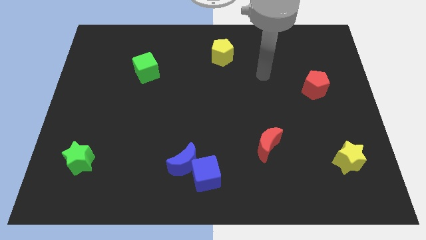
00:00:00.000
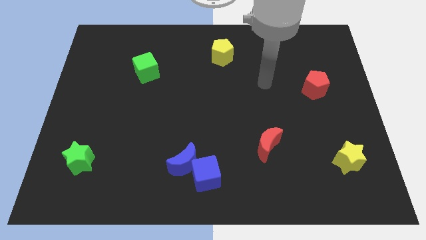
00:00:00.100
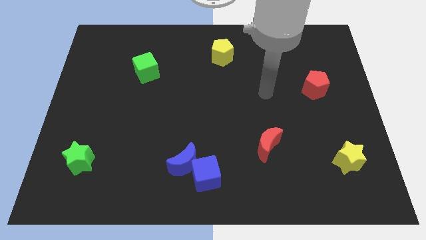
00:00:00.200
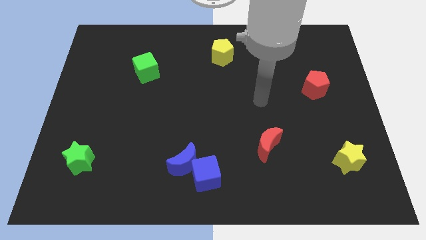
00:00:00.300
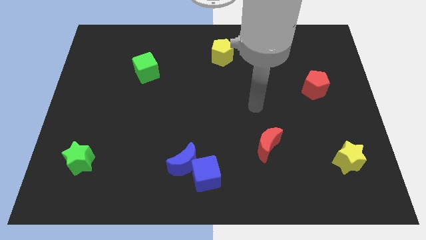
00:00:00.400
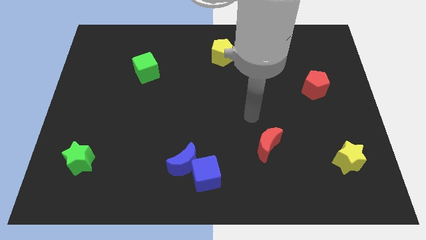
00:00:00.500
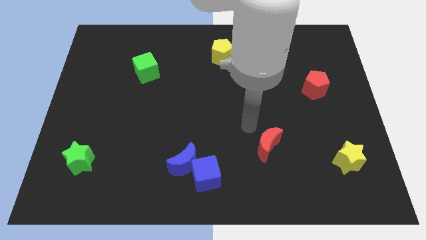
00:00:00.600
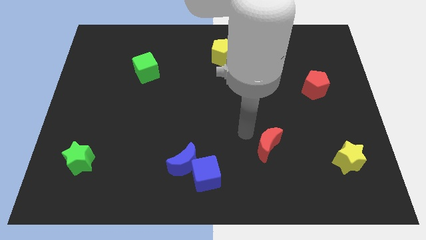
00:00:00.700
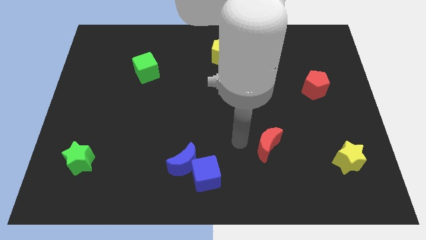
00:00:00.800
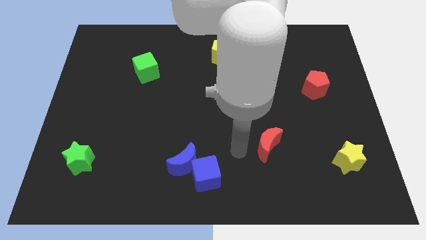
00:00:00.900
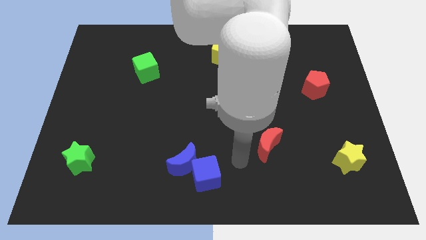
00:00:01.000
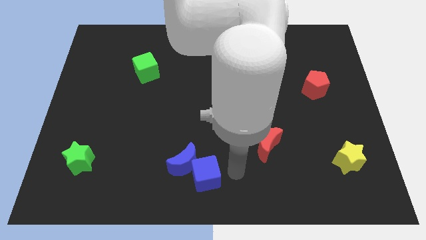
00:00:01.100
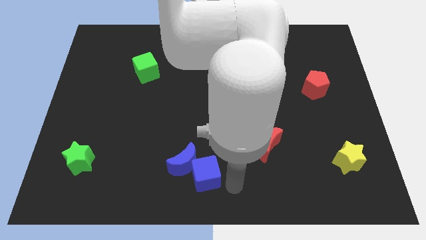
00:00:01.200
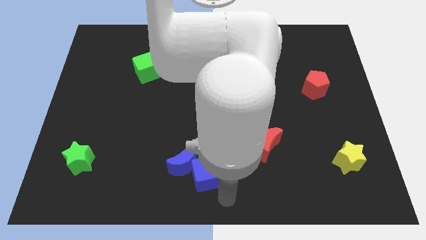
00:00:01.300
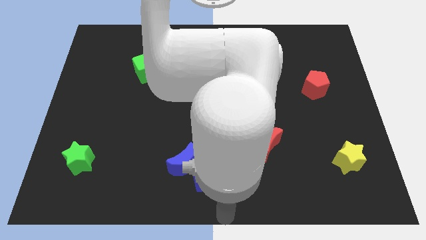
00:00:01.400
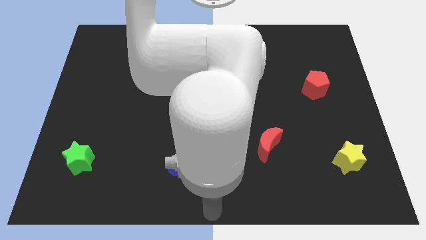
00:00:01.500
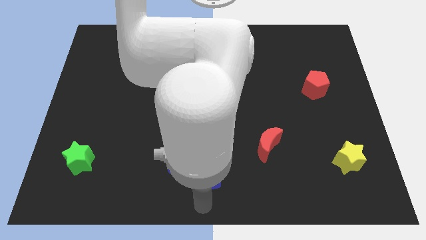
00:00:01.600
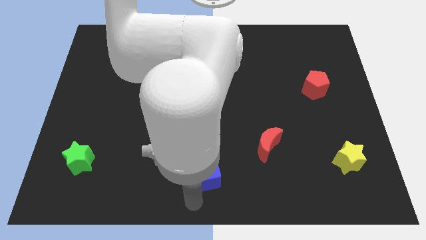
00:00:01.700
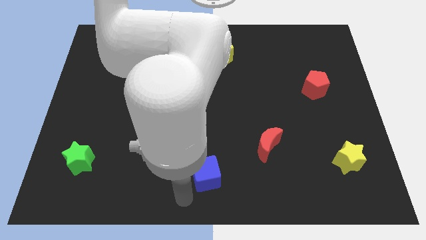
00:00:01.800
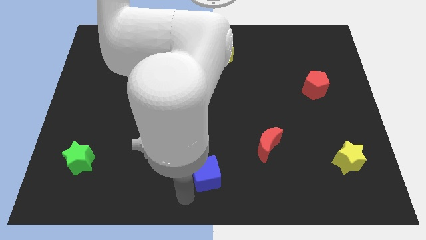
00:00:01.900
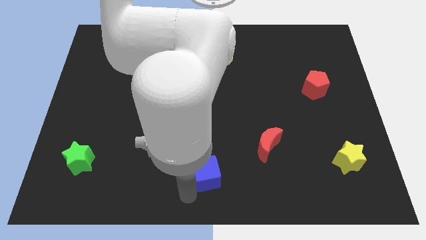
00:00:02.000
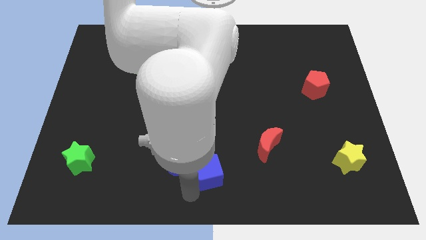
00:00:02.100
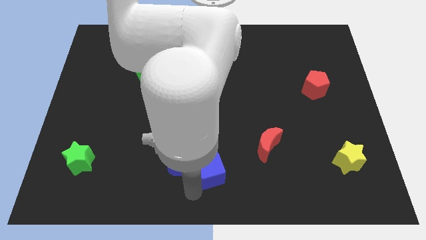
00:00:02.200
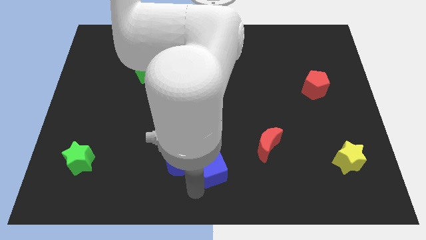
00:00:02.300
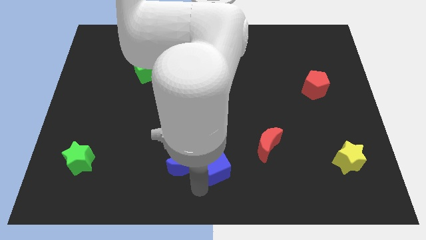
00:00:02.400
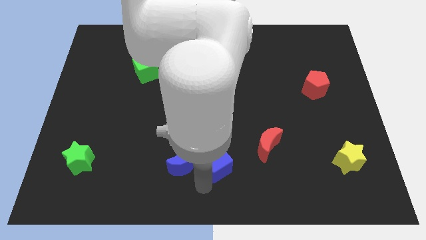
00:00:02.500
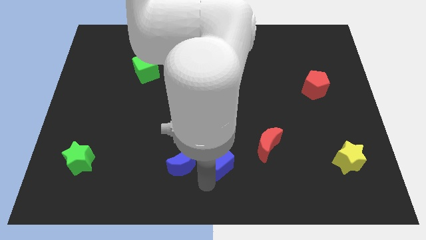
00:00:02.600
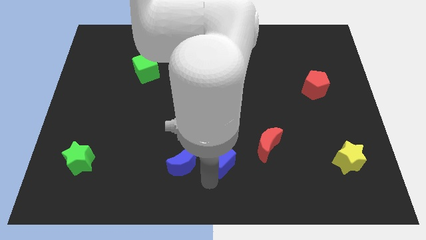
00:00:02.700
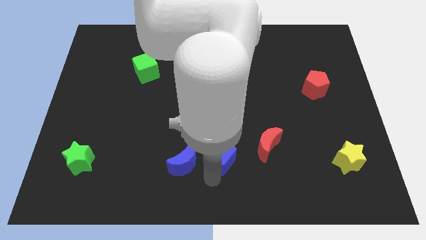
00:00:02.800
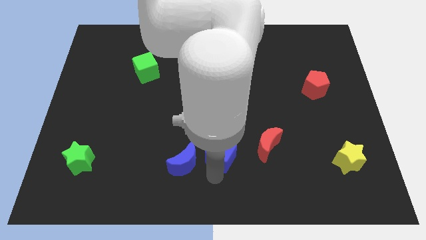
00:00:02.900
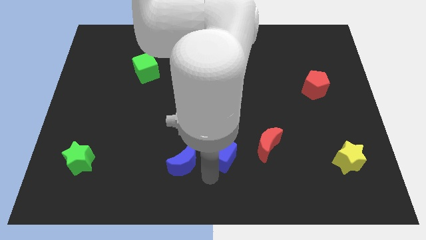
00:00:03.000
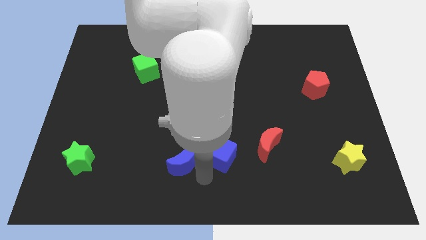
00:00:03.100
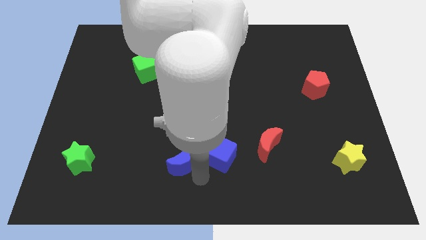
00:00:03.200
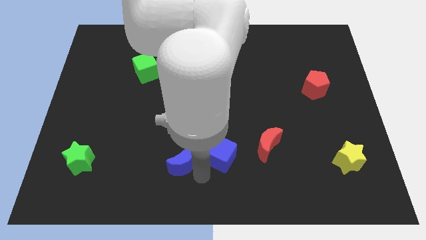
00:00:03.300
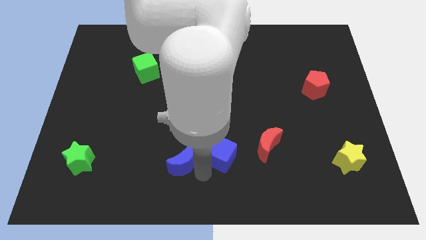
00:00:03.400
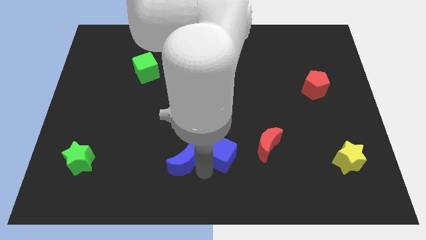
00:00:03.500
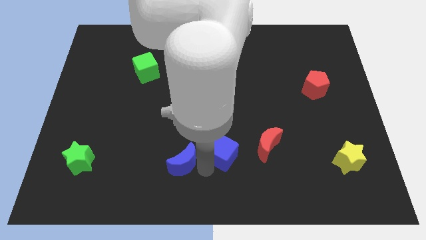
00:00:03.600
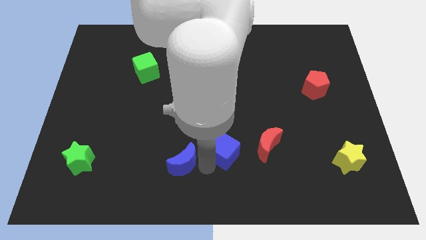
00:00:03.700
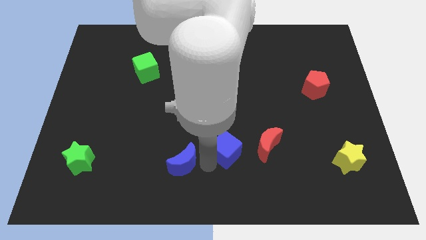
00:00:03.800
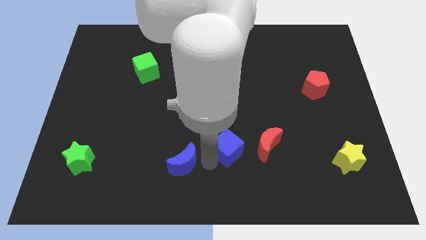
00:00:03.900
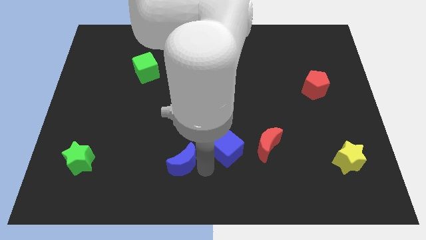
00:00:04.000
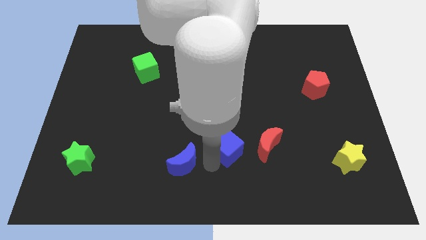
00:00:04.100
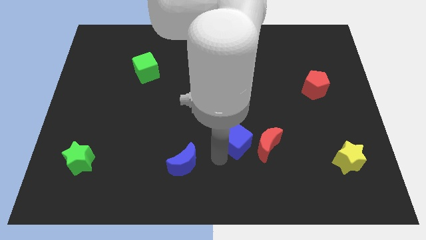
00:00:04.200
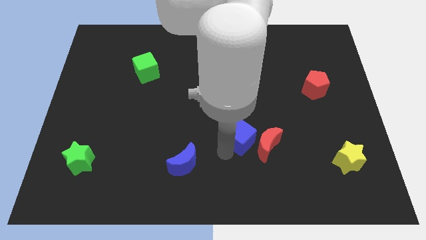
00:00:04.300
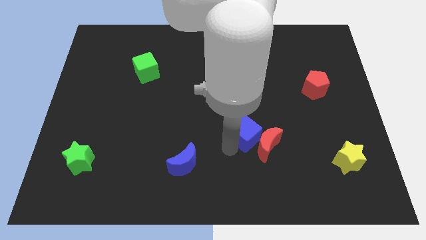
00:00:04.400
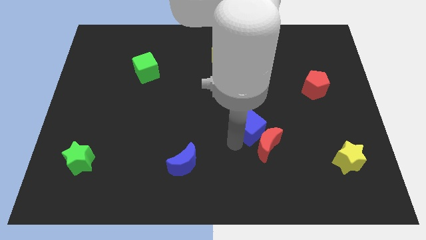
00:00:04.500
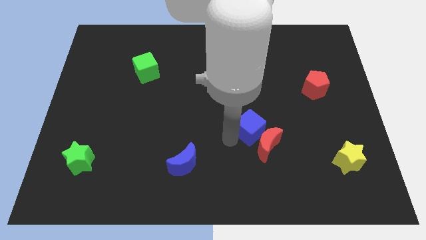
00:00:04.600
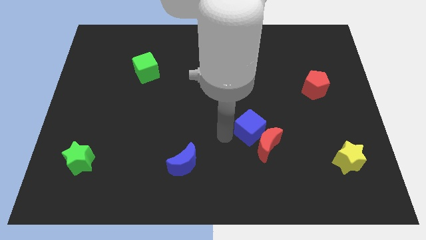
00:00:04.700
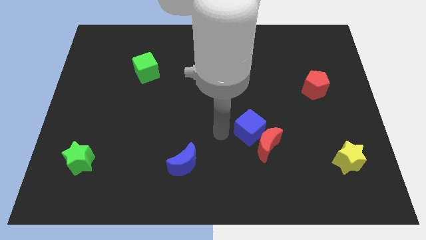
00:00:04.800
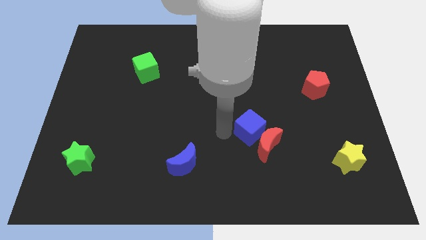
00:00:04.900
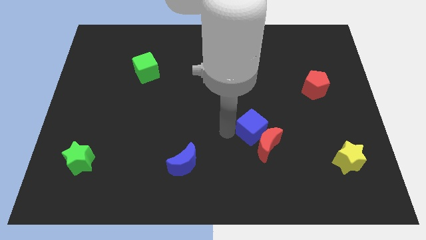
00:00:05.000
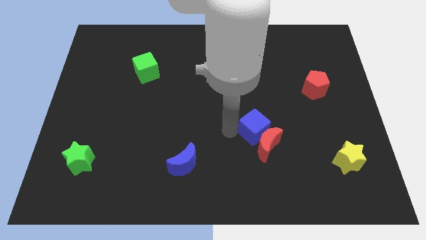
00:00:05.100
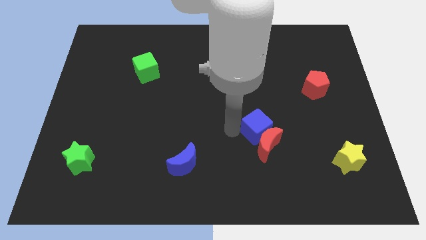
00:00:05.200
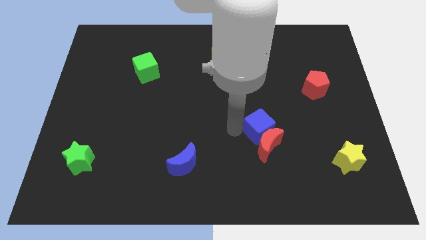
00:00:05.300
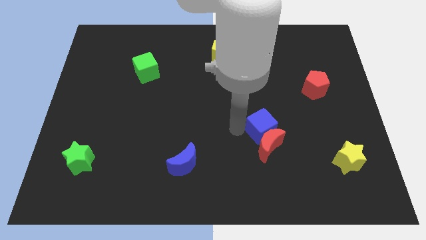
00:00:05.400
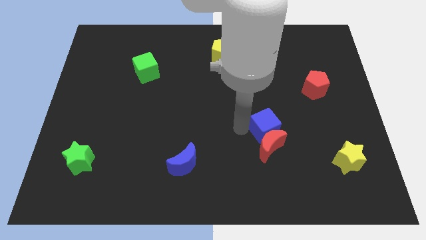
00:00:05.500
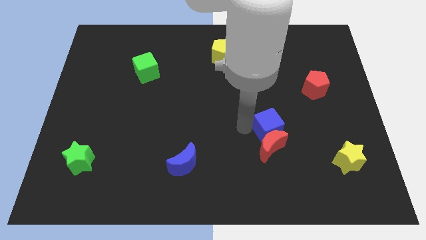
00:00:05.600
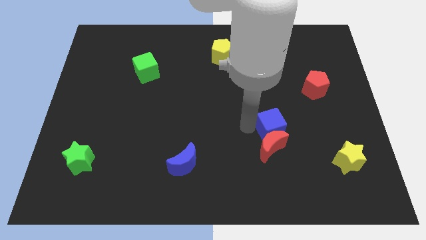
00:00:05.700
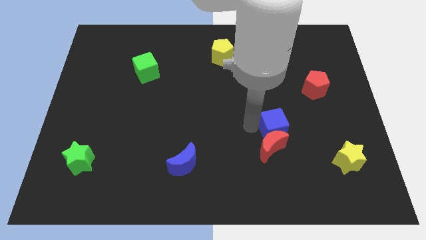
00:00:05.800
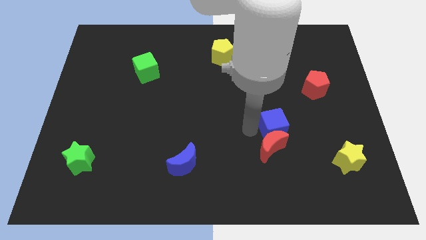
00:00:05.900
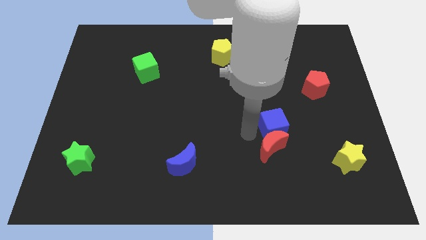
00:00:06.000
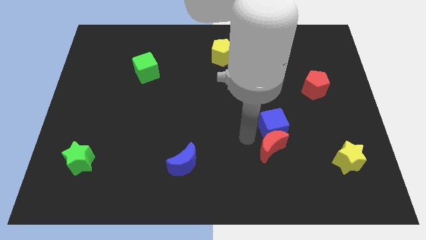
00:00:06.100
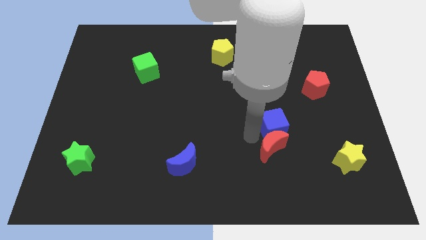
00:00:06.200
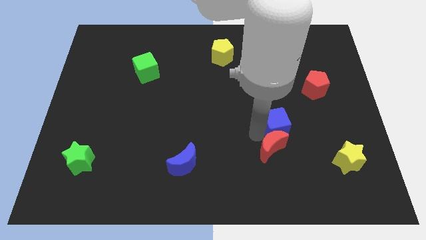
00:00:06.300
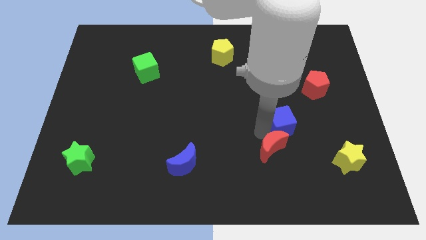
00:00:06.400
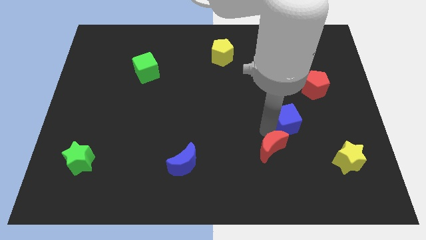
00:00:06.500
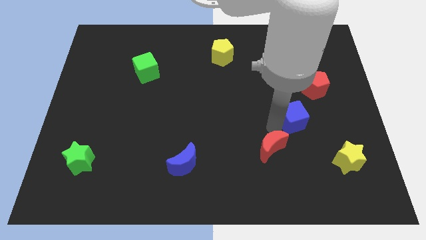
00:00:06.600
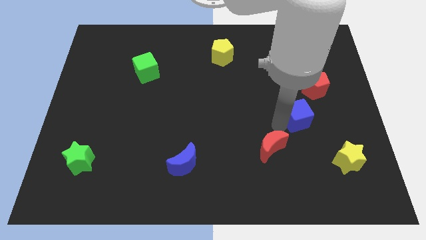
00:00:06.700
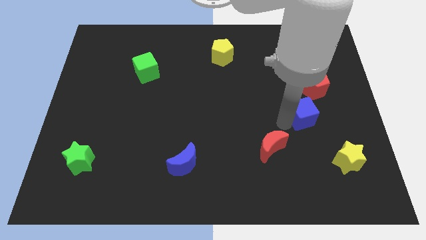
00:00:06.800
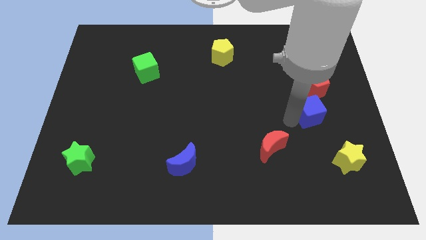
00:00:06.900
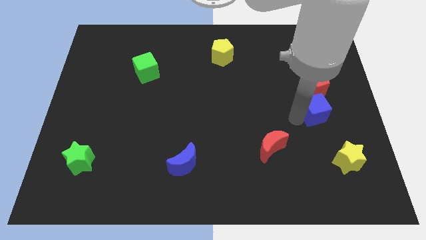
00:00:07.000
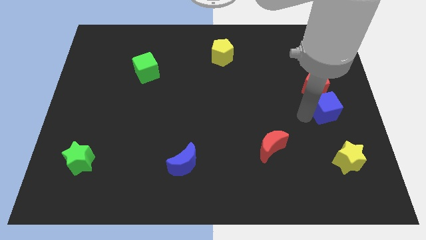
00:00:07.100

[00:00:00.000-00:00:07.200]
put the blue cube to the right side of the board
